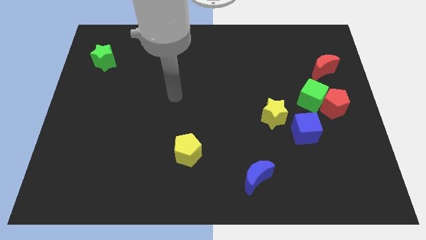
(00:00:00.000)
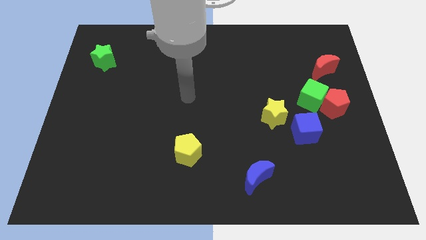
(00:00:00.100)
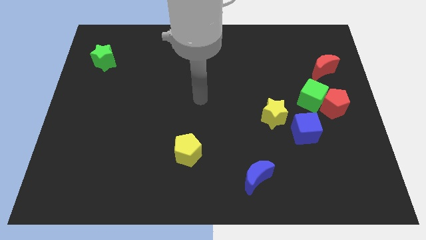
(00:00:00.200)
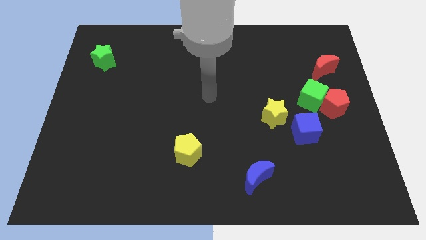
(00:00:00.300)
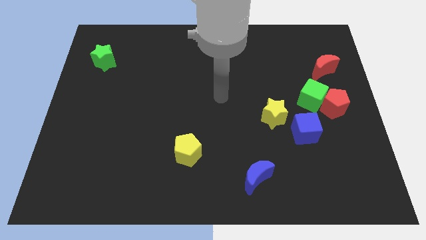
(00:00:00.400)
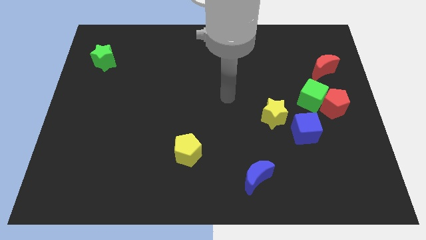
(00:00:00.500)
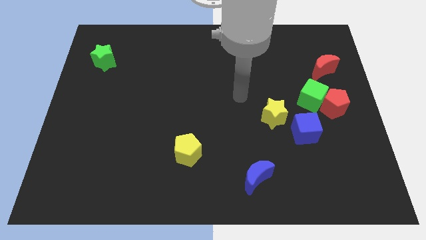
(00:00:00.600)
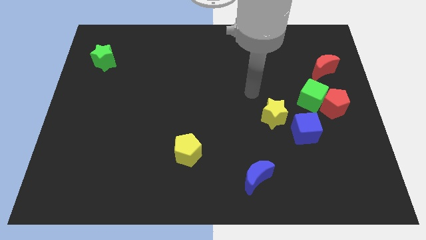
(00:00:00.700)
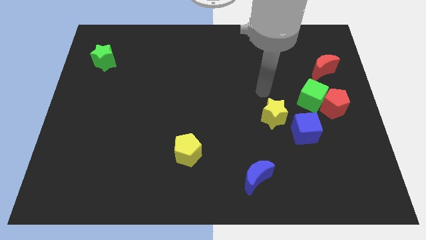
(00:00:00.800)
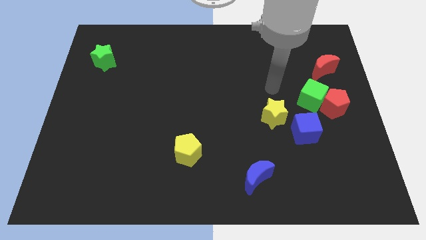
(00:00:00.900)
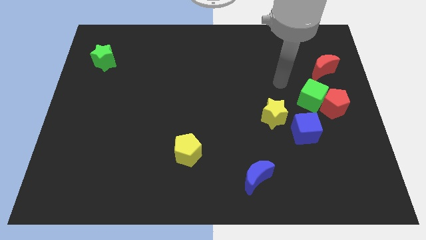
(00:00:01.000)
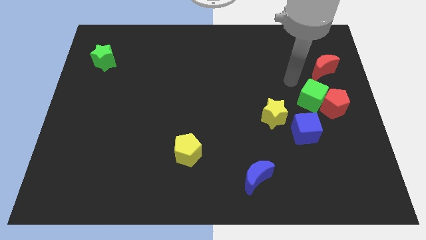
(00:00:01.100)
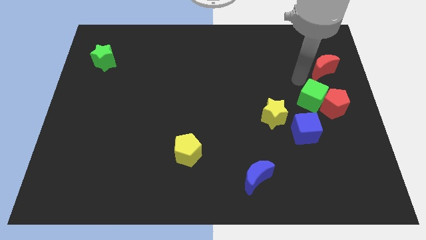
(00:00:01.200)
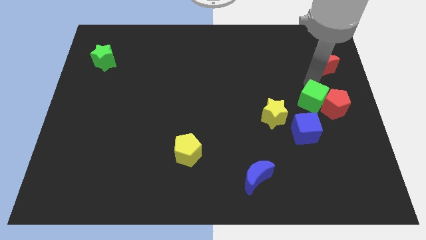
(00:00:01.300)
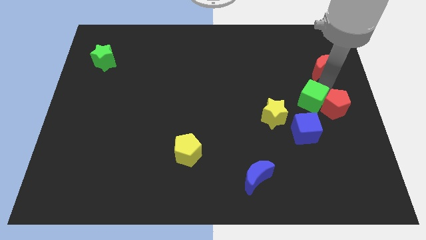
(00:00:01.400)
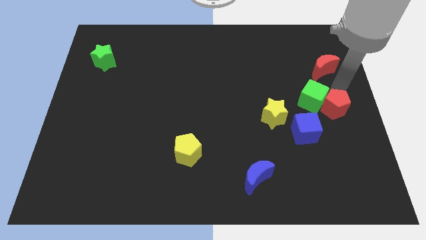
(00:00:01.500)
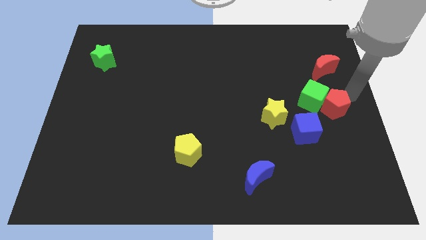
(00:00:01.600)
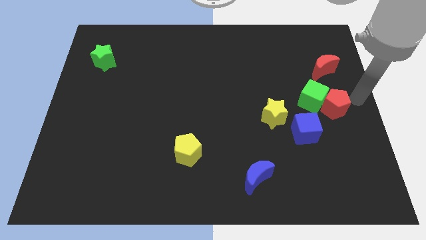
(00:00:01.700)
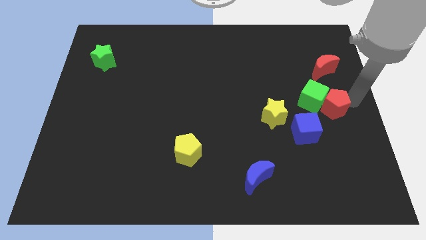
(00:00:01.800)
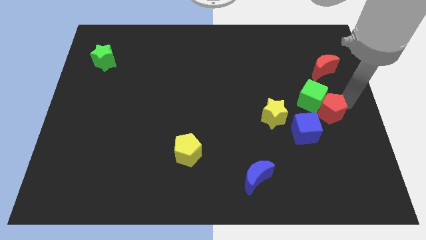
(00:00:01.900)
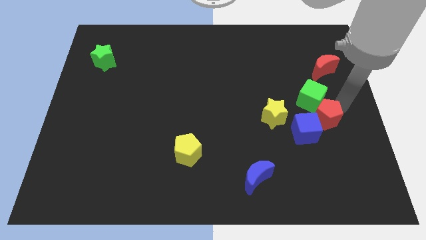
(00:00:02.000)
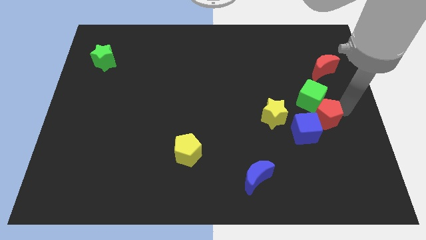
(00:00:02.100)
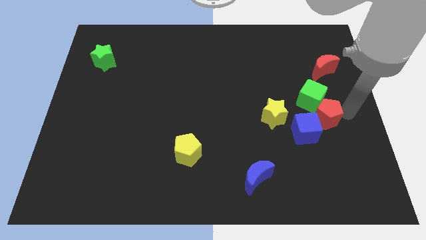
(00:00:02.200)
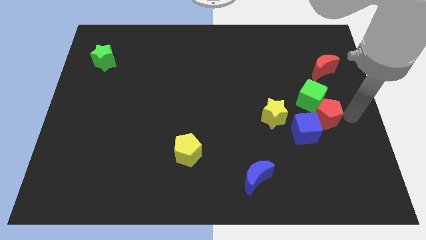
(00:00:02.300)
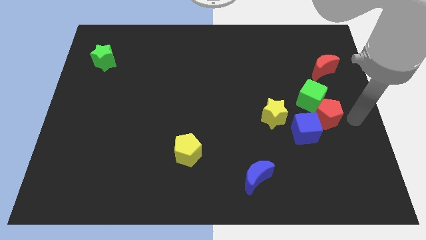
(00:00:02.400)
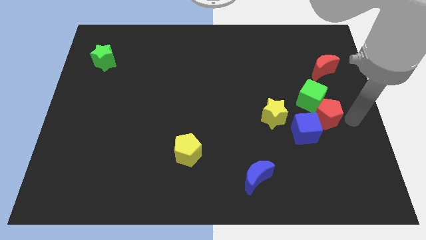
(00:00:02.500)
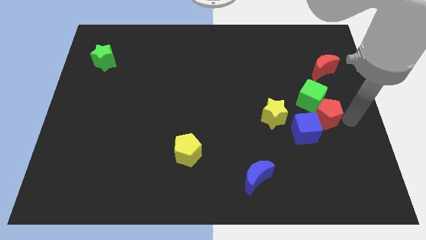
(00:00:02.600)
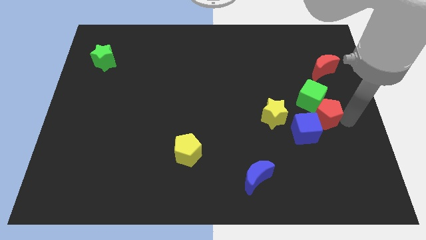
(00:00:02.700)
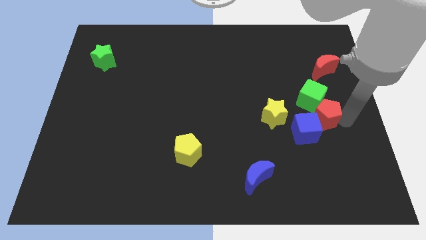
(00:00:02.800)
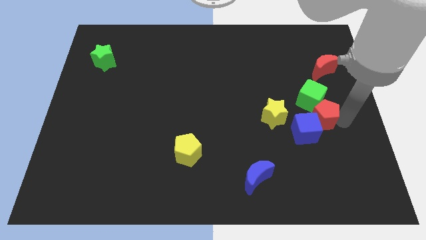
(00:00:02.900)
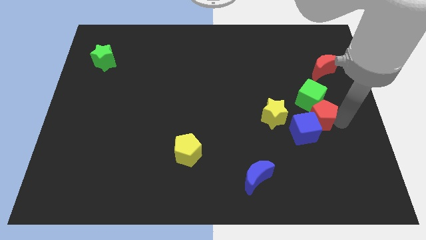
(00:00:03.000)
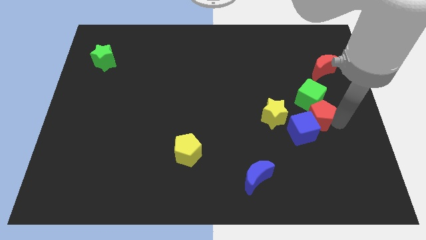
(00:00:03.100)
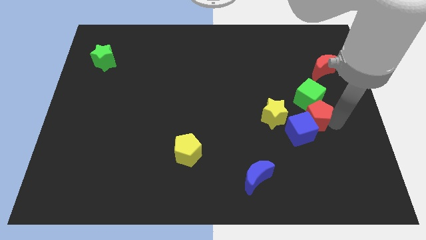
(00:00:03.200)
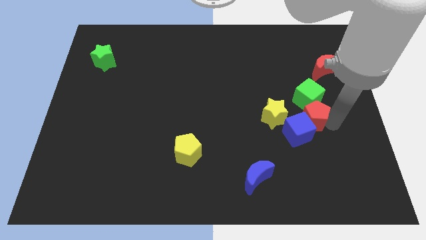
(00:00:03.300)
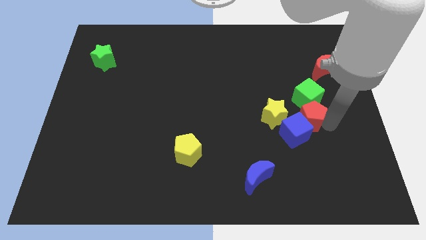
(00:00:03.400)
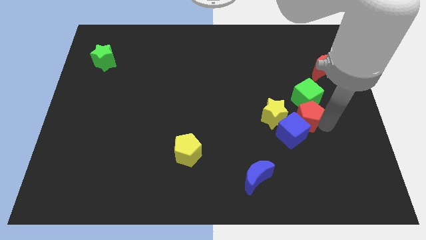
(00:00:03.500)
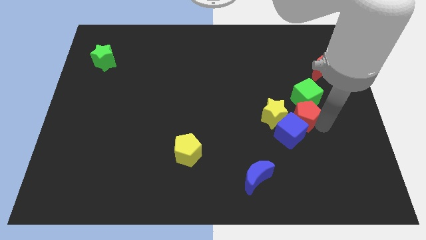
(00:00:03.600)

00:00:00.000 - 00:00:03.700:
move the red pentagon to the left somewhat

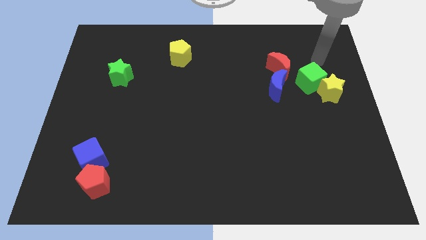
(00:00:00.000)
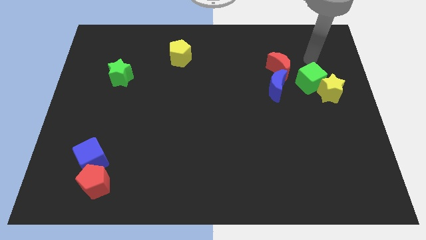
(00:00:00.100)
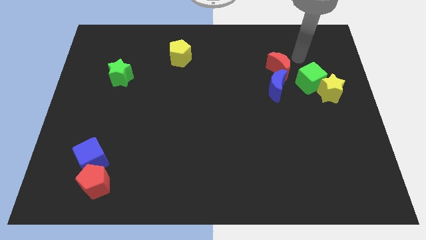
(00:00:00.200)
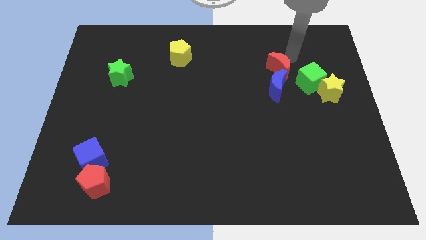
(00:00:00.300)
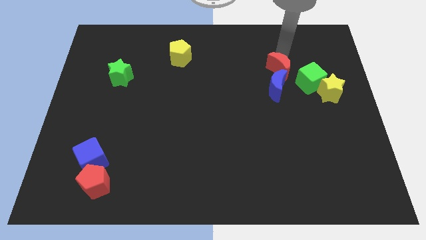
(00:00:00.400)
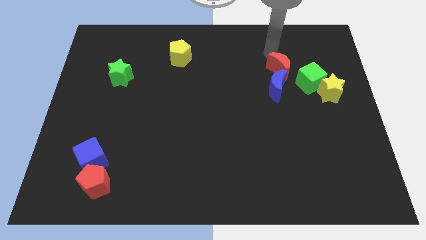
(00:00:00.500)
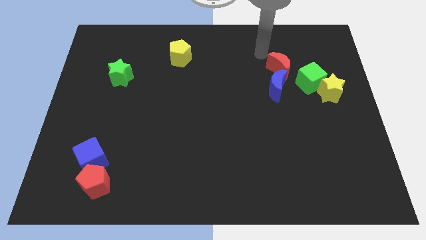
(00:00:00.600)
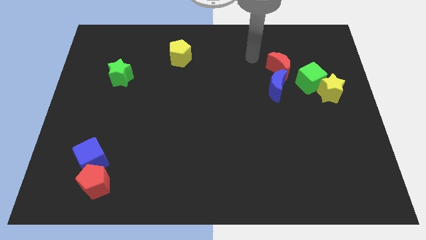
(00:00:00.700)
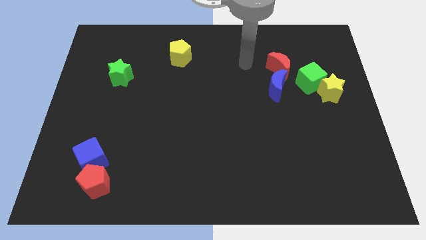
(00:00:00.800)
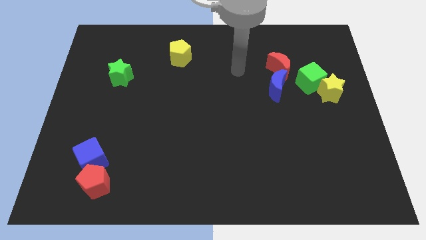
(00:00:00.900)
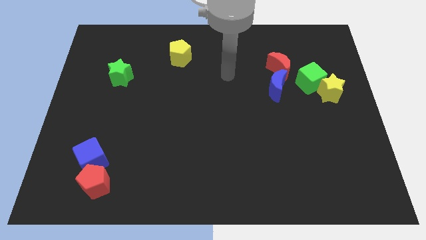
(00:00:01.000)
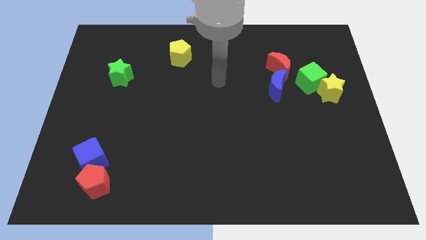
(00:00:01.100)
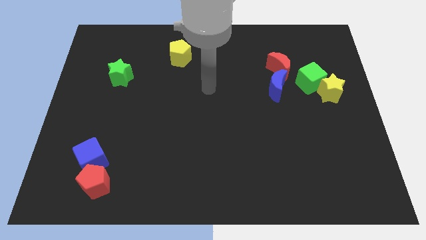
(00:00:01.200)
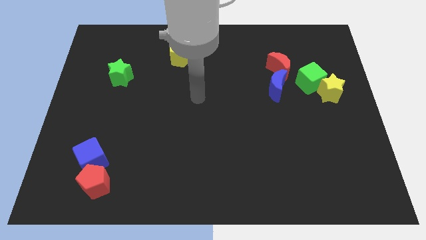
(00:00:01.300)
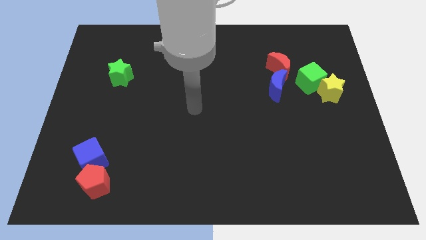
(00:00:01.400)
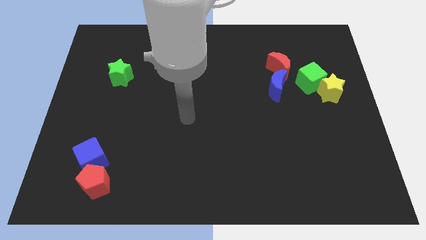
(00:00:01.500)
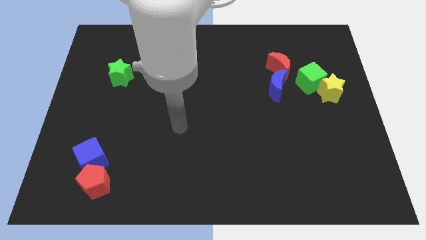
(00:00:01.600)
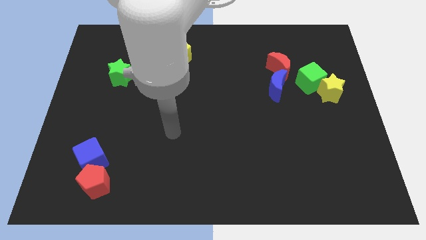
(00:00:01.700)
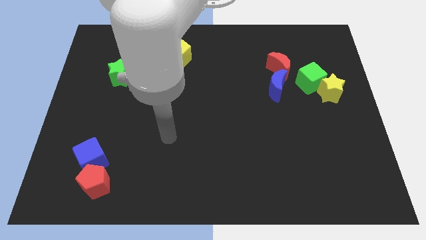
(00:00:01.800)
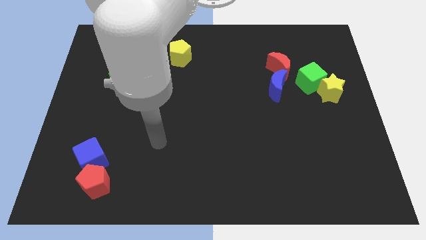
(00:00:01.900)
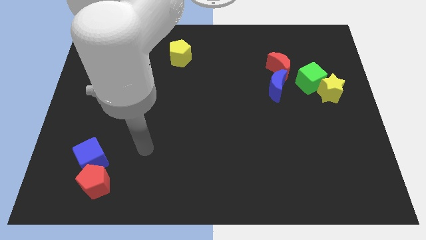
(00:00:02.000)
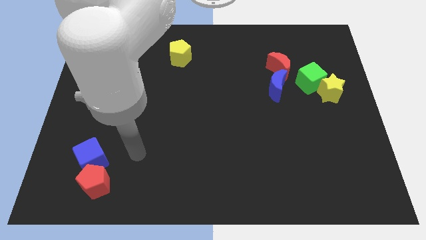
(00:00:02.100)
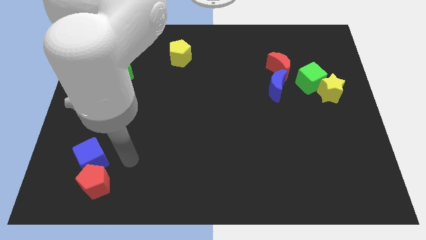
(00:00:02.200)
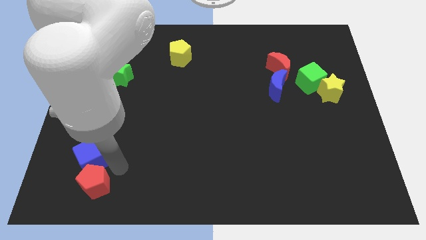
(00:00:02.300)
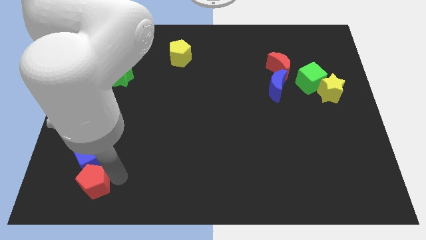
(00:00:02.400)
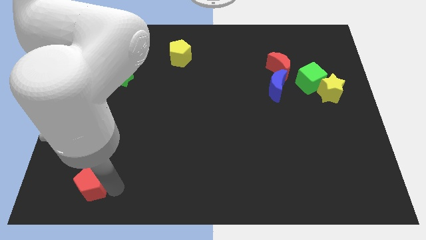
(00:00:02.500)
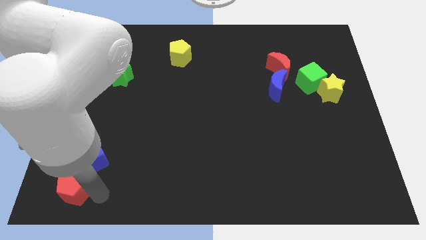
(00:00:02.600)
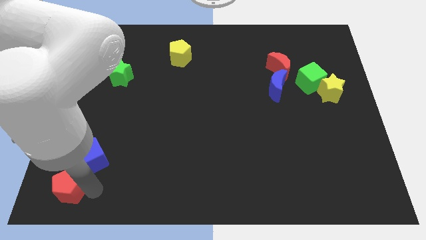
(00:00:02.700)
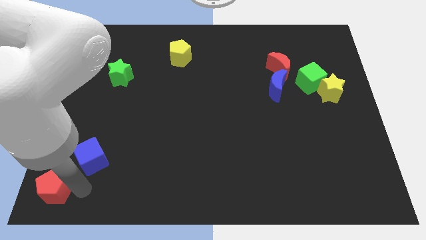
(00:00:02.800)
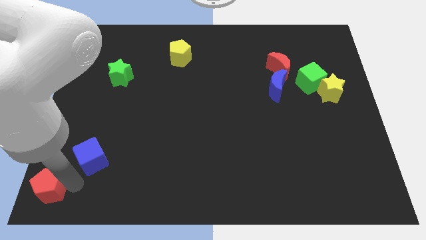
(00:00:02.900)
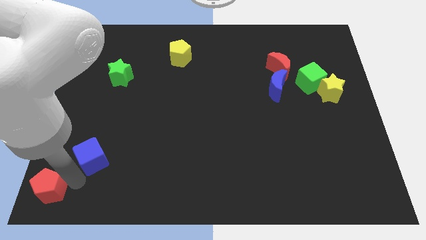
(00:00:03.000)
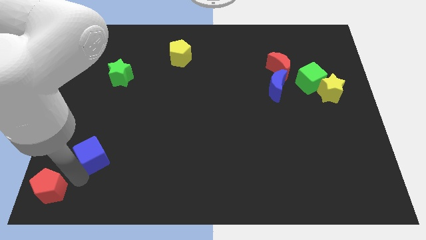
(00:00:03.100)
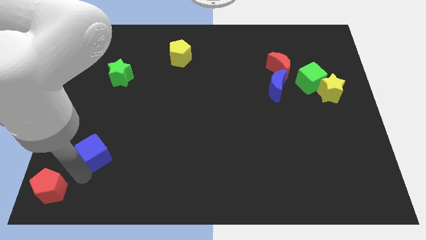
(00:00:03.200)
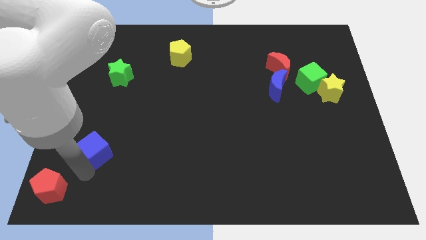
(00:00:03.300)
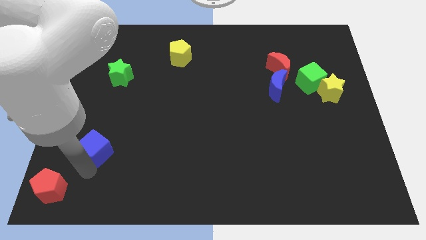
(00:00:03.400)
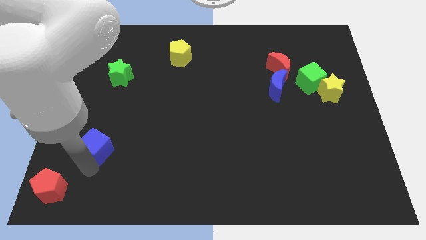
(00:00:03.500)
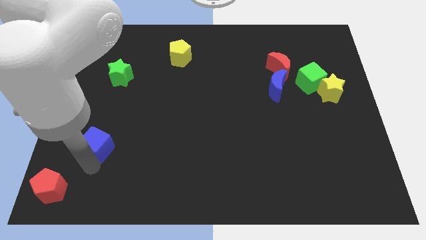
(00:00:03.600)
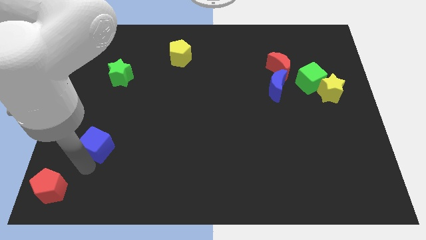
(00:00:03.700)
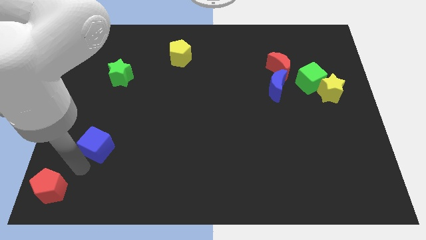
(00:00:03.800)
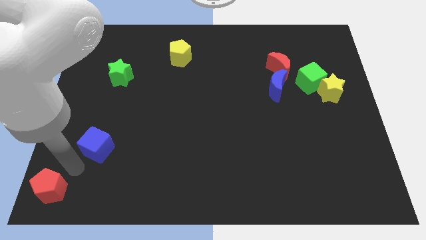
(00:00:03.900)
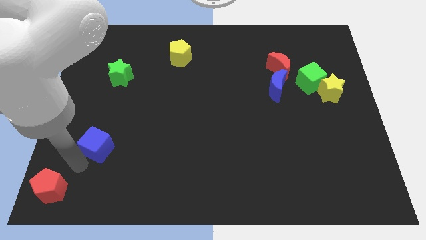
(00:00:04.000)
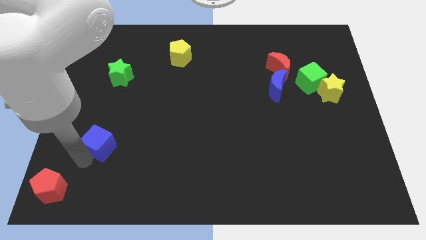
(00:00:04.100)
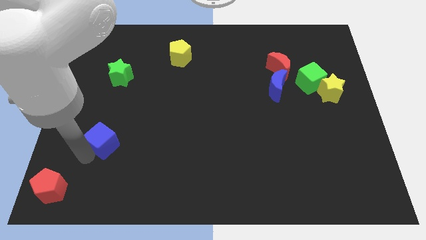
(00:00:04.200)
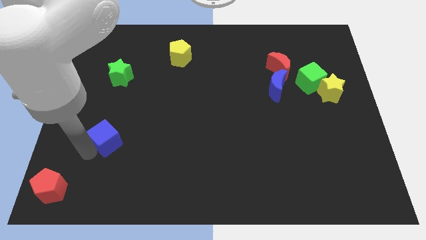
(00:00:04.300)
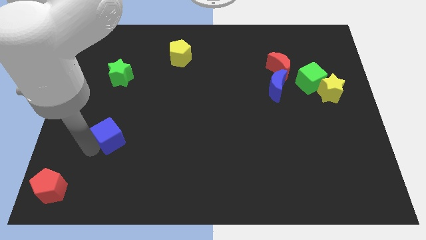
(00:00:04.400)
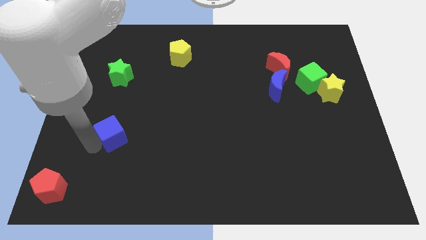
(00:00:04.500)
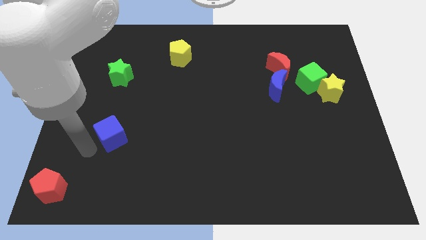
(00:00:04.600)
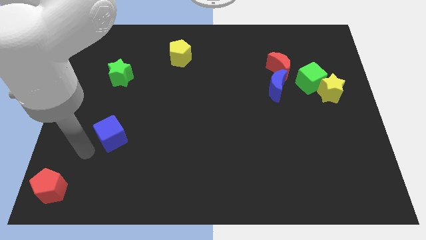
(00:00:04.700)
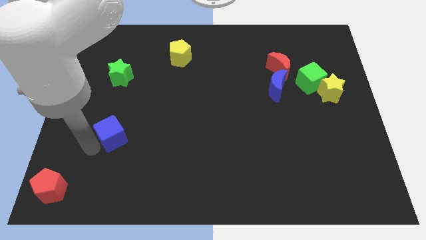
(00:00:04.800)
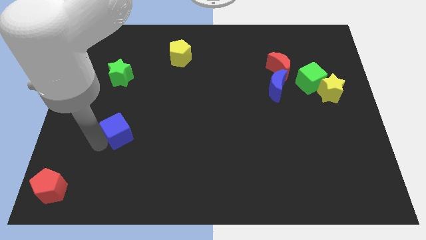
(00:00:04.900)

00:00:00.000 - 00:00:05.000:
move the blue cube up and then right a little bit
